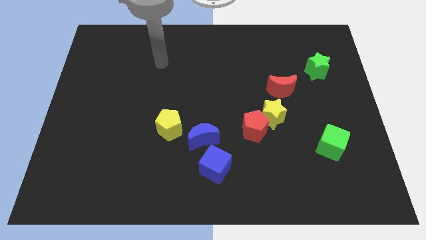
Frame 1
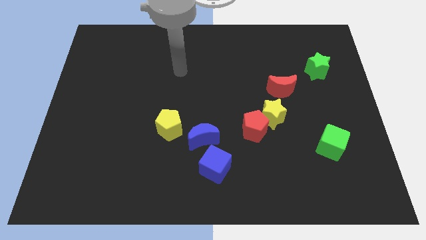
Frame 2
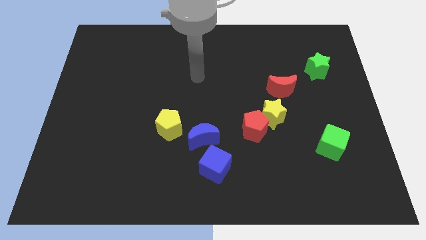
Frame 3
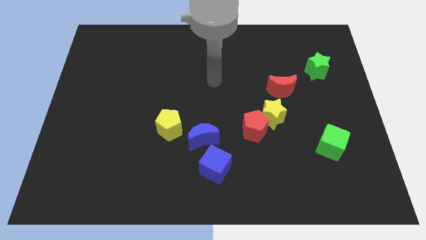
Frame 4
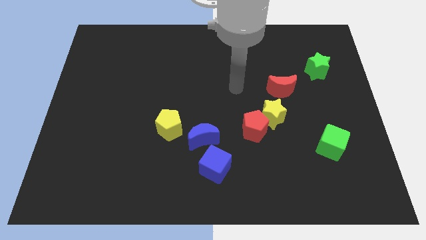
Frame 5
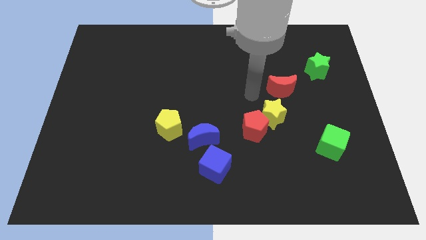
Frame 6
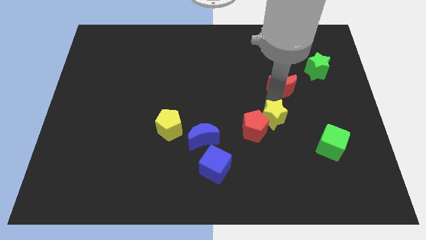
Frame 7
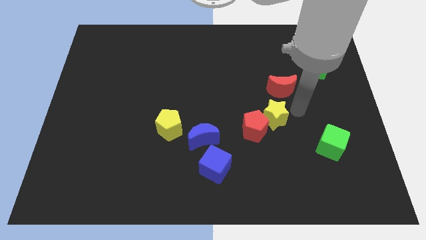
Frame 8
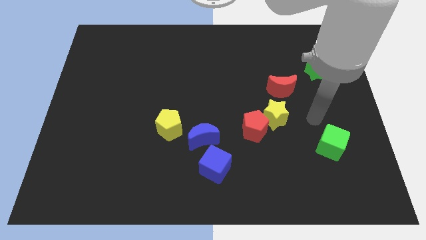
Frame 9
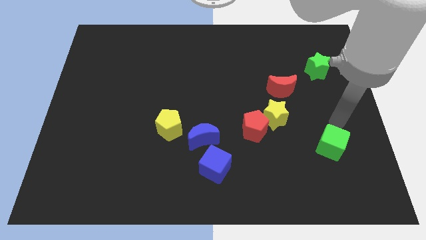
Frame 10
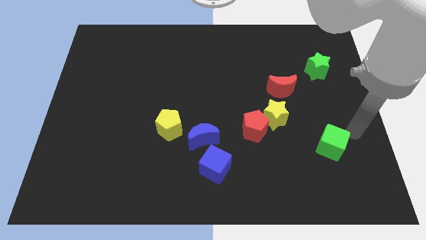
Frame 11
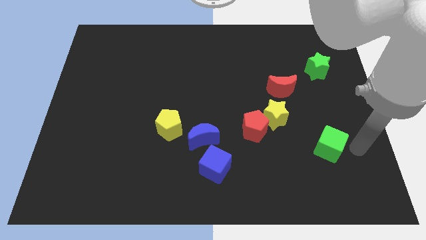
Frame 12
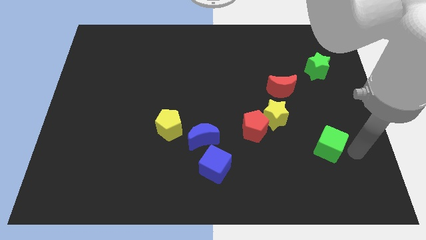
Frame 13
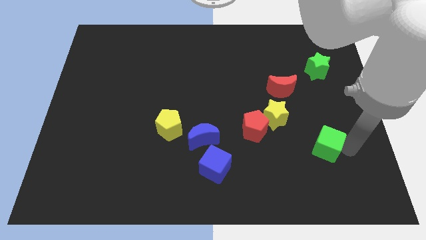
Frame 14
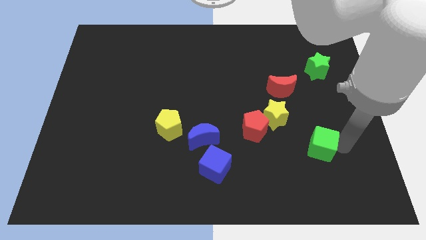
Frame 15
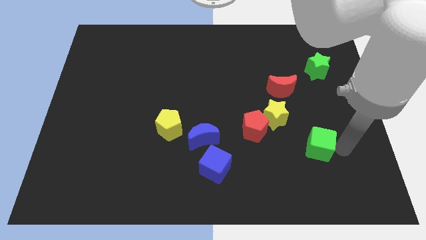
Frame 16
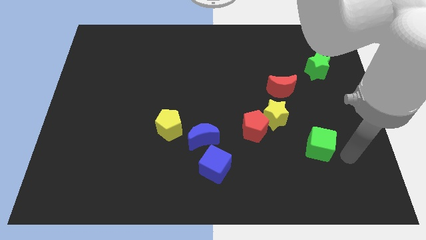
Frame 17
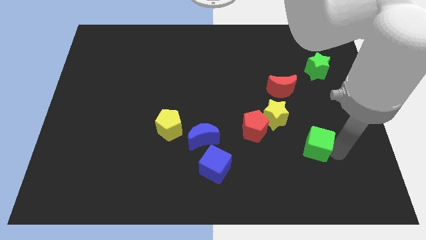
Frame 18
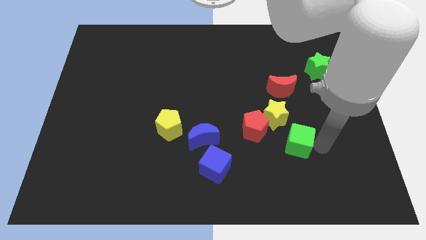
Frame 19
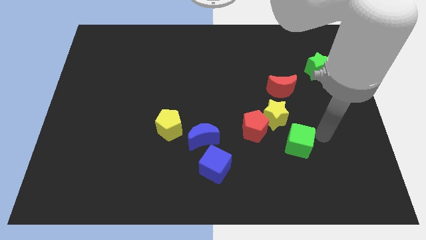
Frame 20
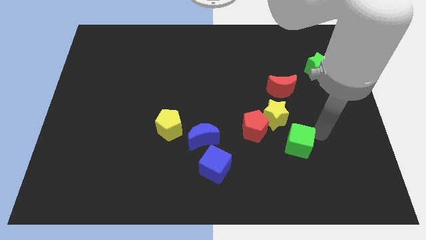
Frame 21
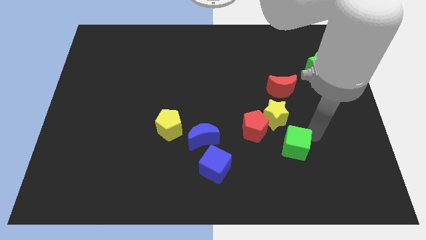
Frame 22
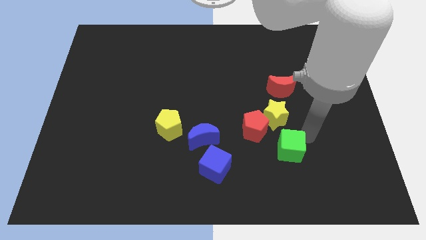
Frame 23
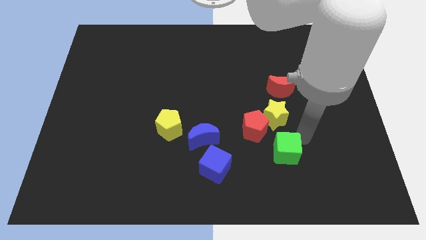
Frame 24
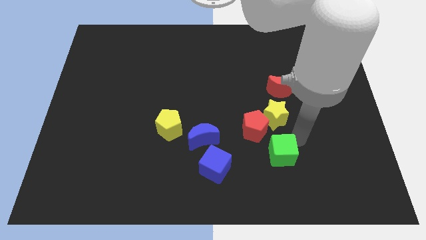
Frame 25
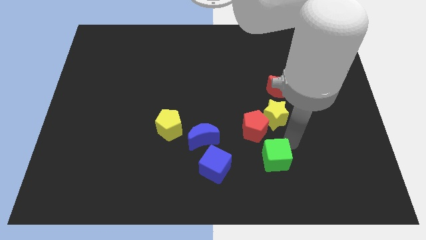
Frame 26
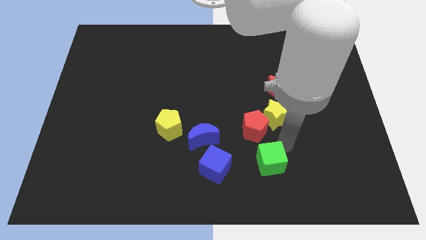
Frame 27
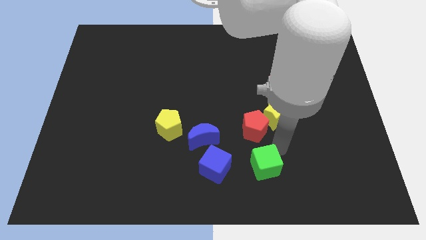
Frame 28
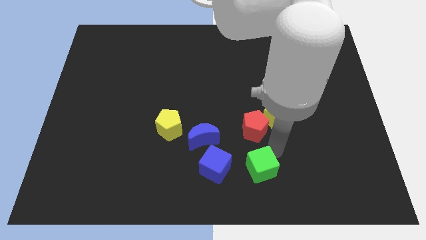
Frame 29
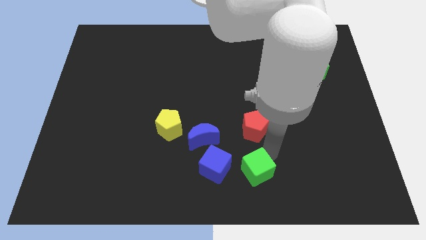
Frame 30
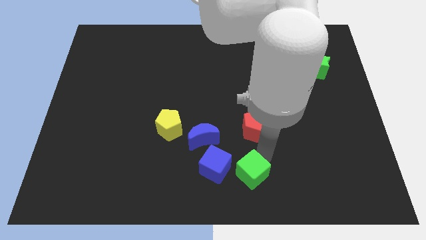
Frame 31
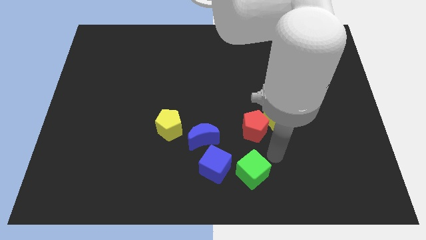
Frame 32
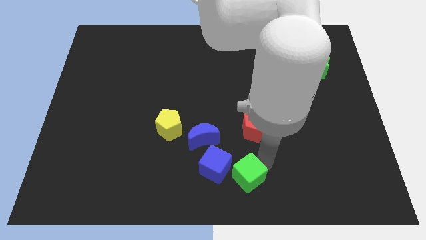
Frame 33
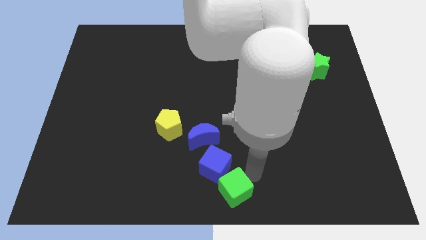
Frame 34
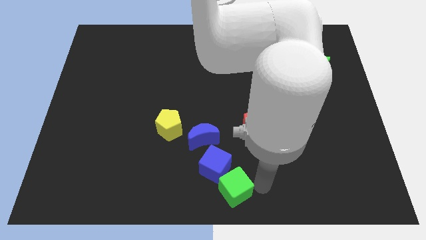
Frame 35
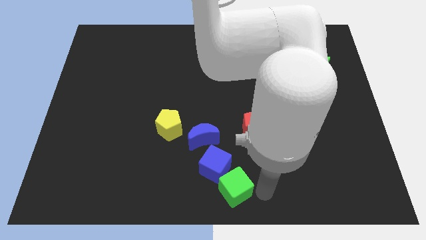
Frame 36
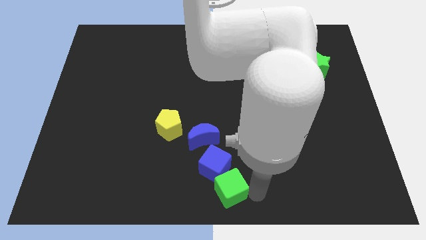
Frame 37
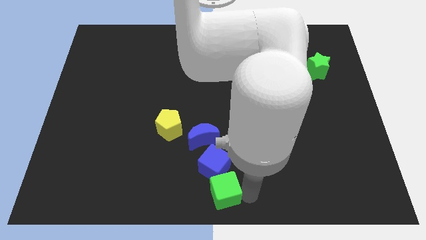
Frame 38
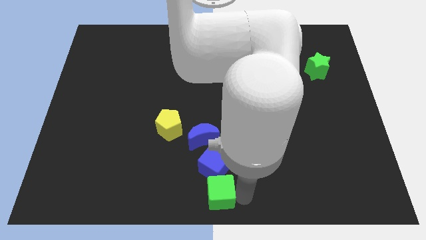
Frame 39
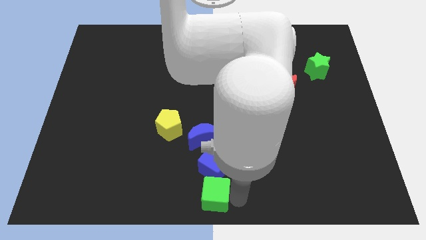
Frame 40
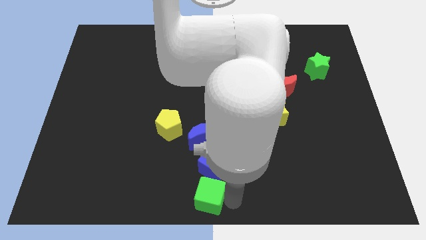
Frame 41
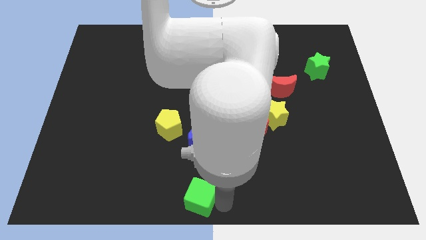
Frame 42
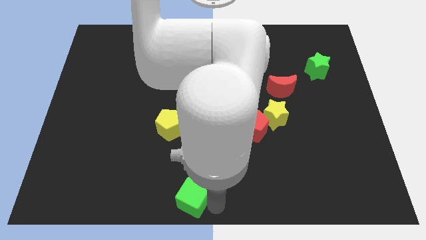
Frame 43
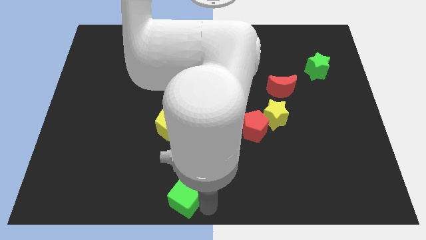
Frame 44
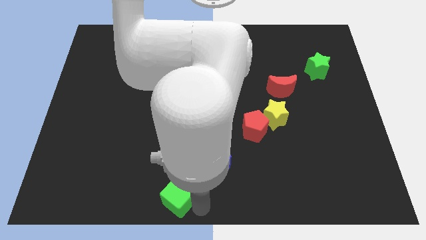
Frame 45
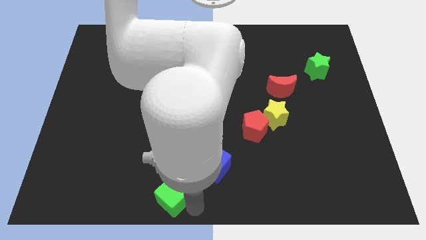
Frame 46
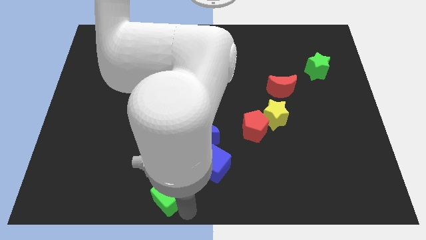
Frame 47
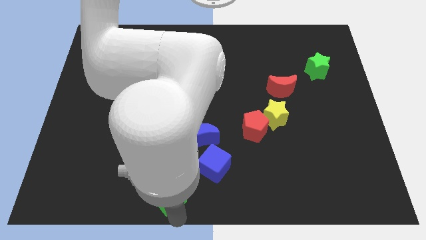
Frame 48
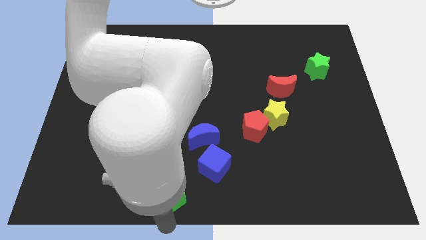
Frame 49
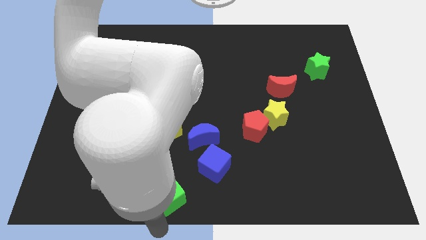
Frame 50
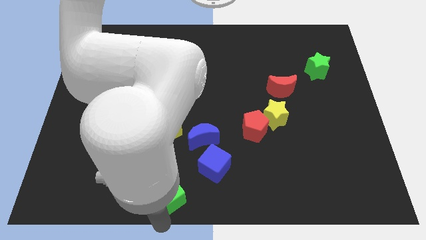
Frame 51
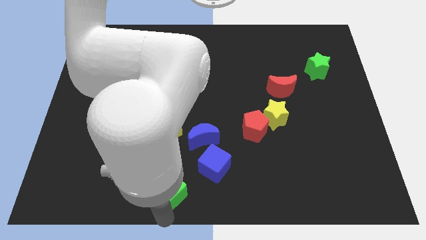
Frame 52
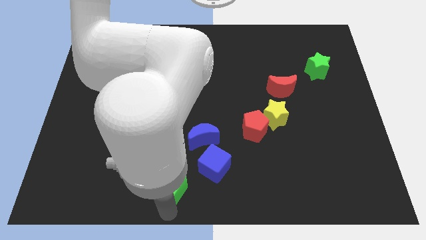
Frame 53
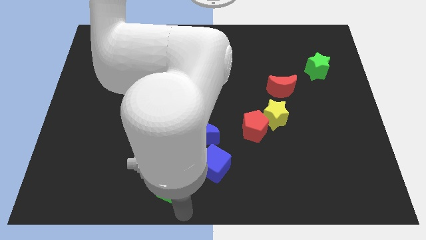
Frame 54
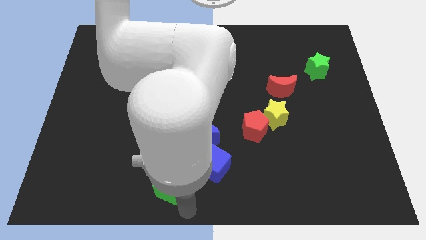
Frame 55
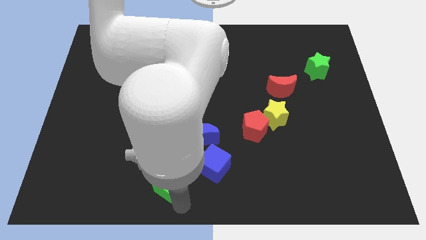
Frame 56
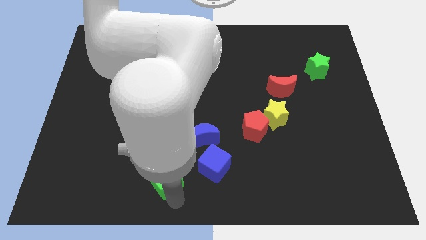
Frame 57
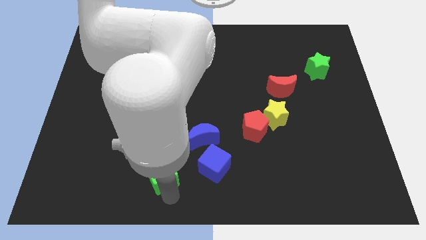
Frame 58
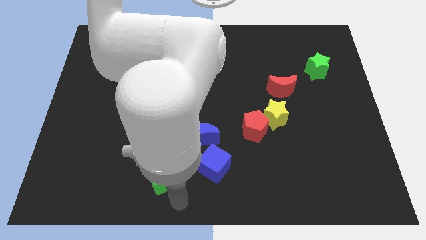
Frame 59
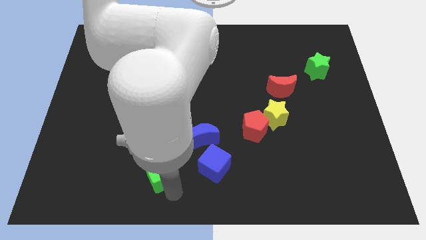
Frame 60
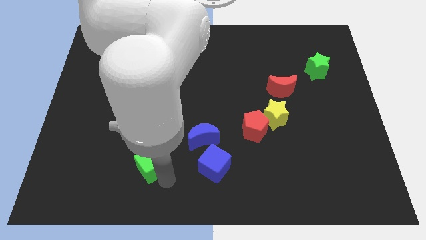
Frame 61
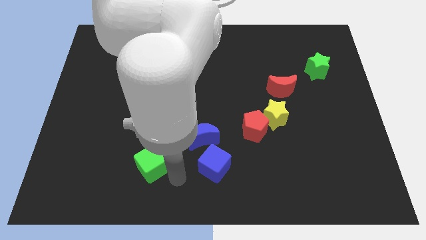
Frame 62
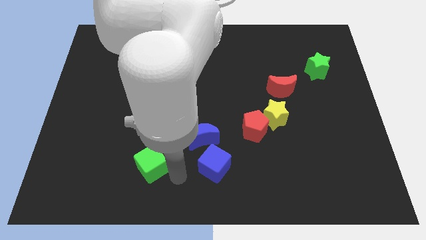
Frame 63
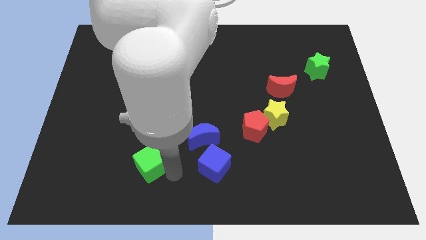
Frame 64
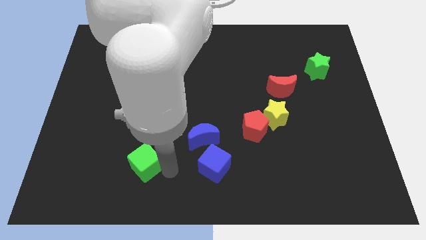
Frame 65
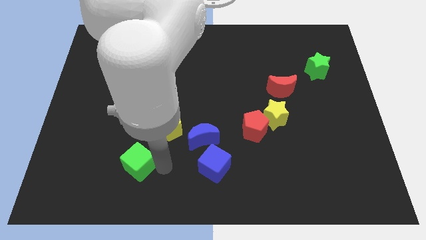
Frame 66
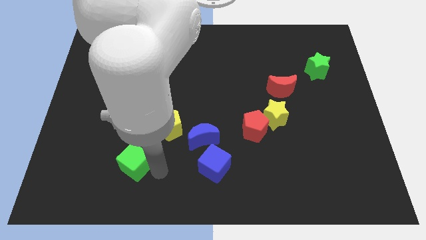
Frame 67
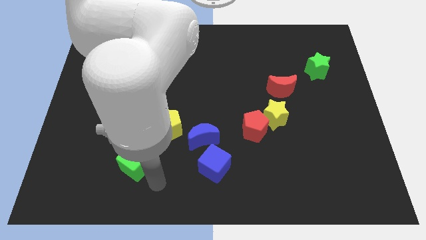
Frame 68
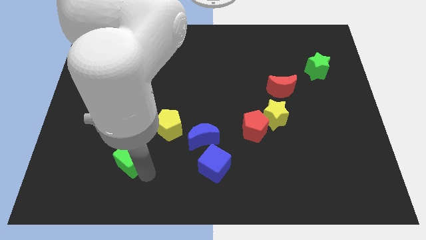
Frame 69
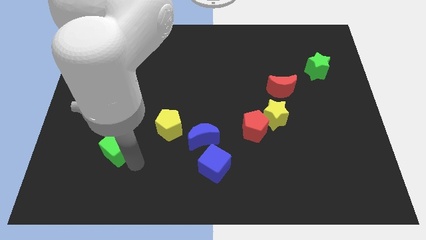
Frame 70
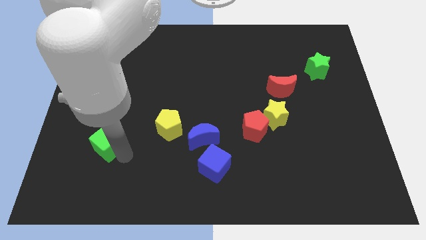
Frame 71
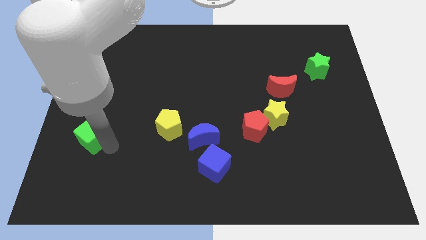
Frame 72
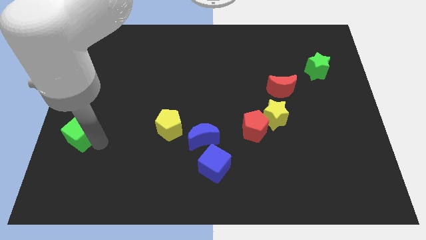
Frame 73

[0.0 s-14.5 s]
slide the green cube to the left side
